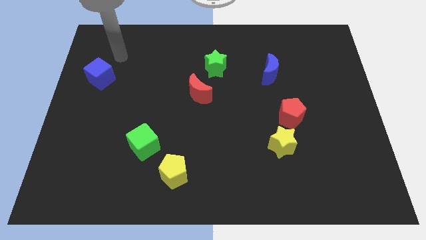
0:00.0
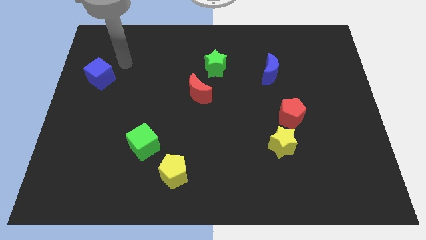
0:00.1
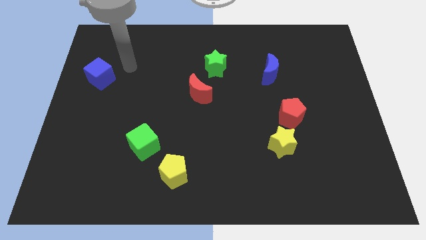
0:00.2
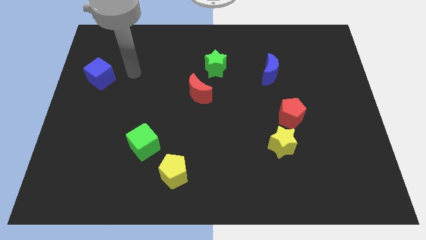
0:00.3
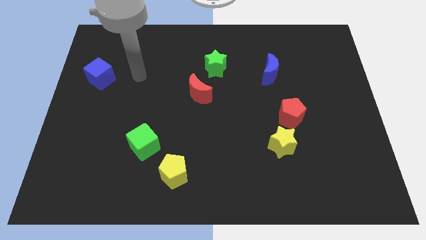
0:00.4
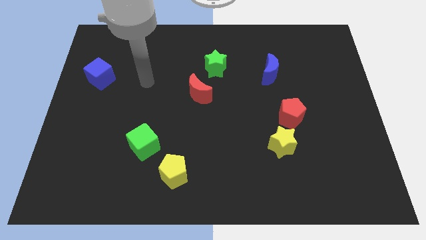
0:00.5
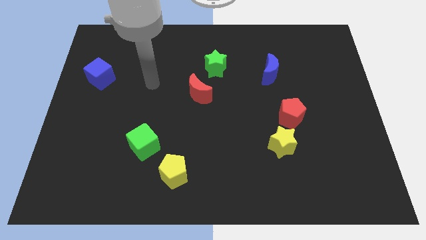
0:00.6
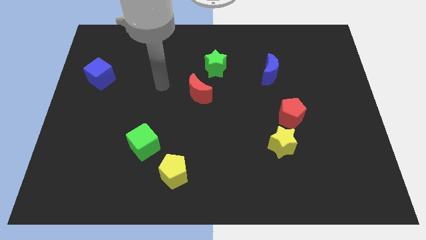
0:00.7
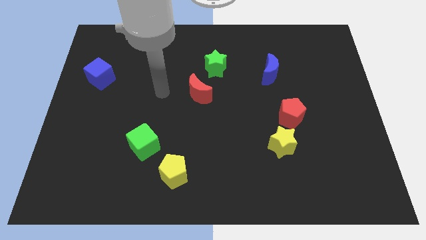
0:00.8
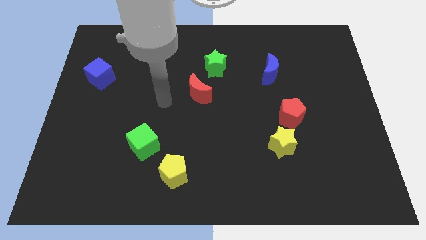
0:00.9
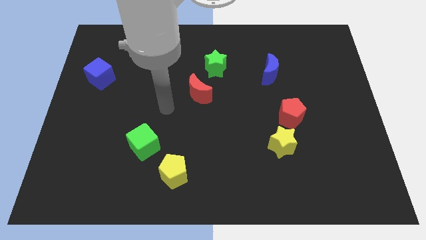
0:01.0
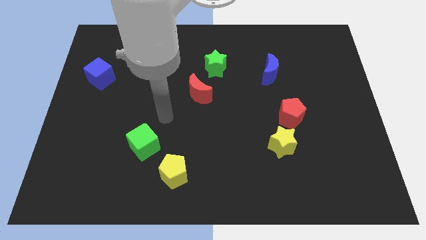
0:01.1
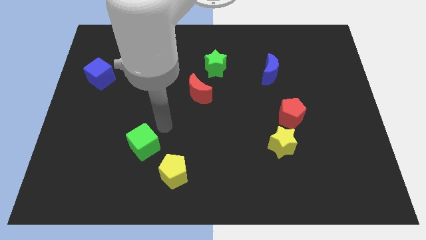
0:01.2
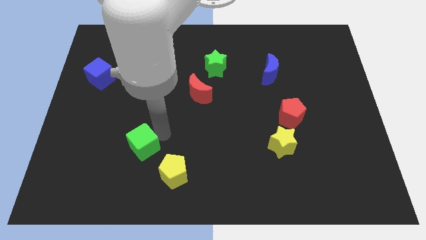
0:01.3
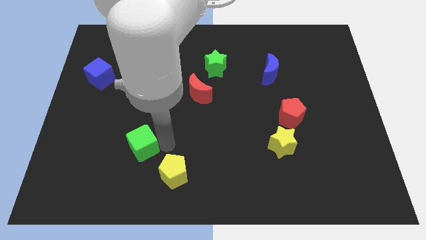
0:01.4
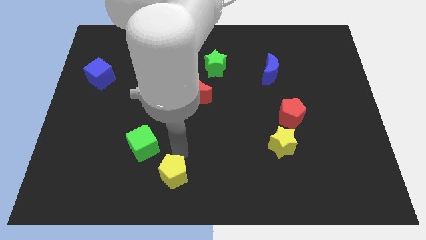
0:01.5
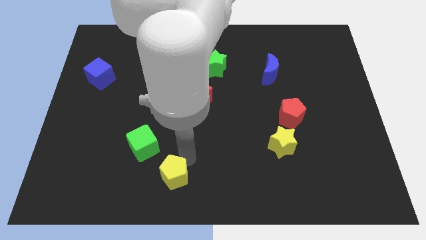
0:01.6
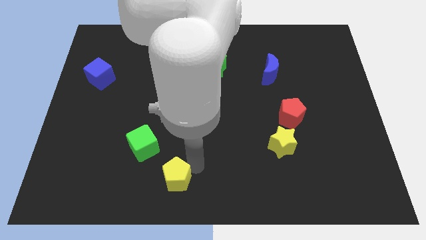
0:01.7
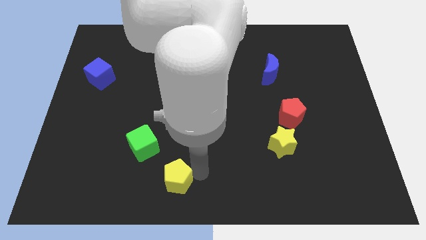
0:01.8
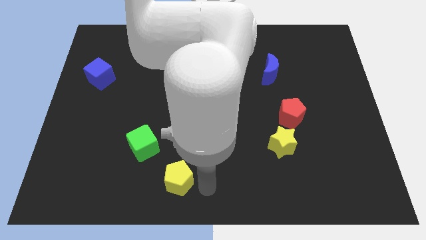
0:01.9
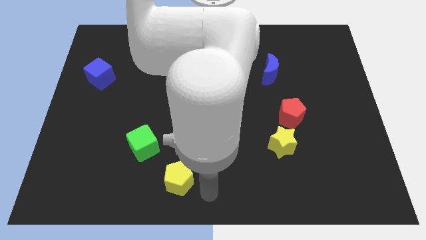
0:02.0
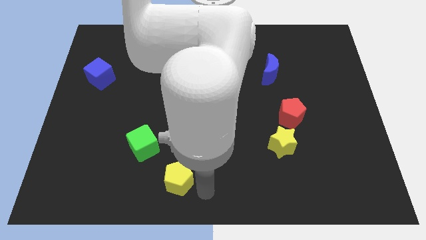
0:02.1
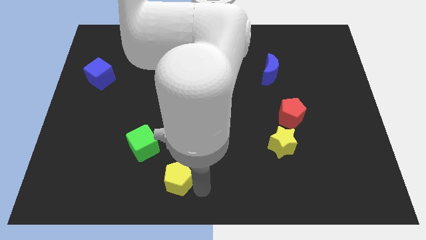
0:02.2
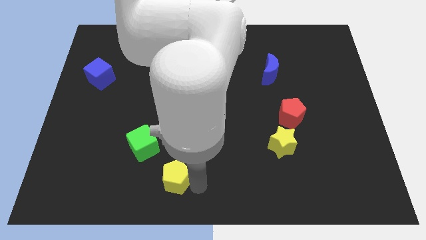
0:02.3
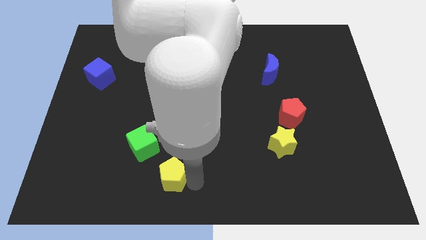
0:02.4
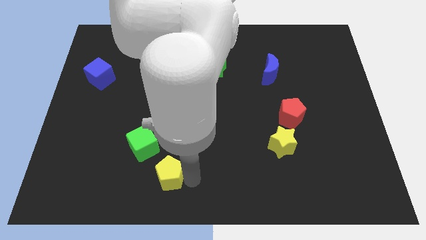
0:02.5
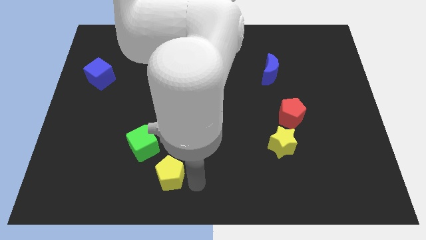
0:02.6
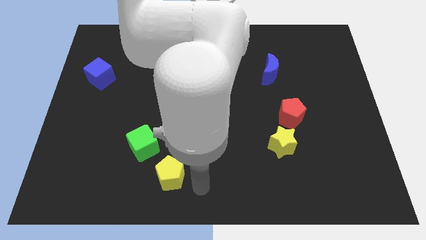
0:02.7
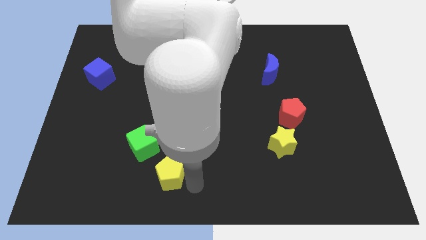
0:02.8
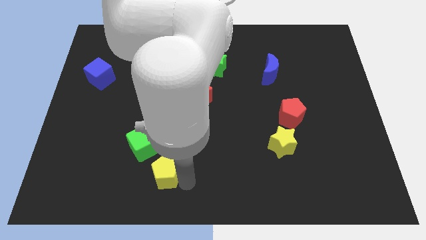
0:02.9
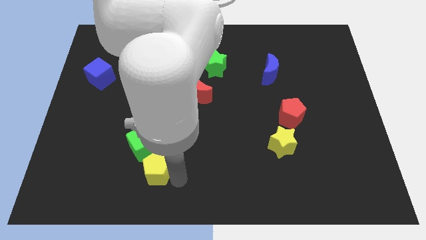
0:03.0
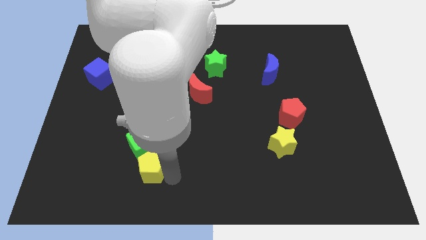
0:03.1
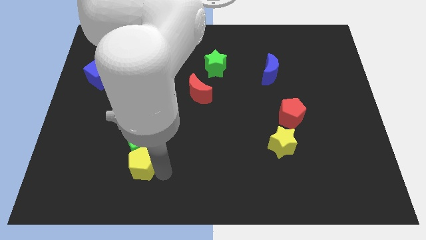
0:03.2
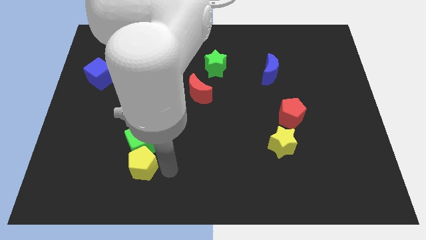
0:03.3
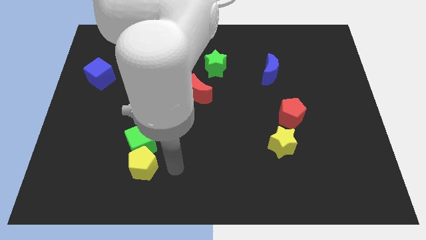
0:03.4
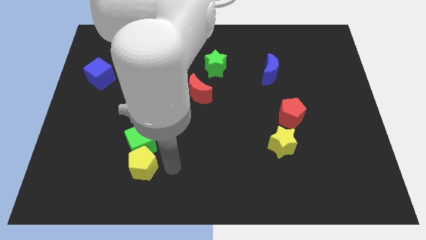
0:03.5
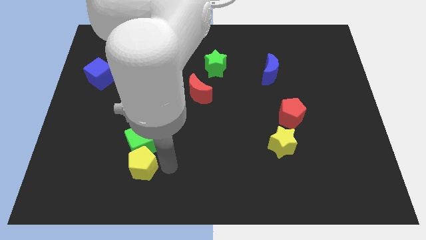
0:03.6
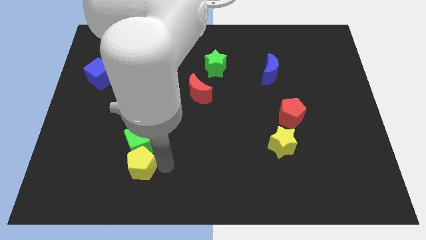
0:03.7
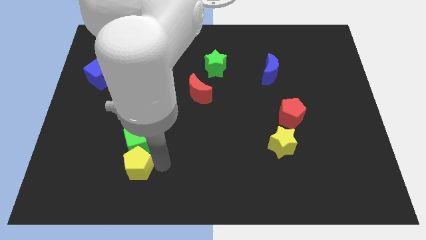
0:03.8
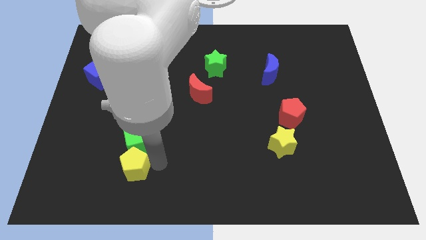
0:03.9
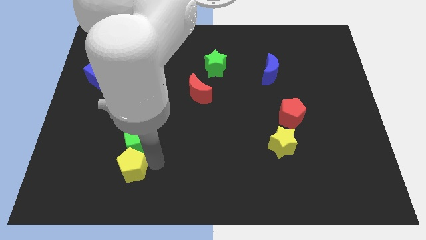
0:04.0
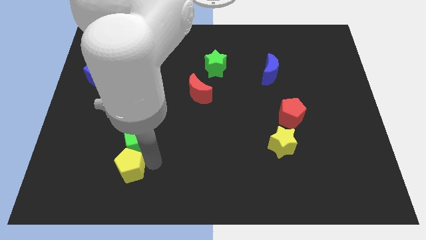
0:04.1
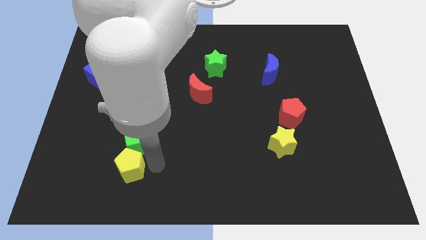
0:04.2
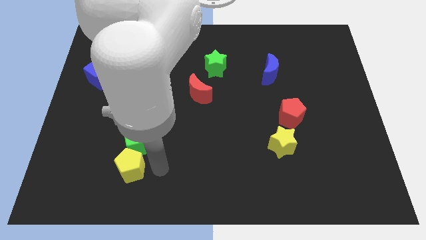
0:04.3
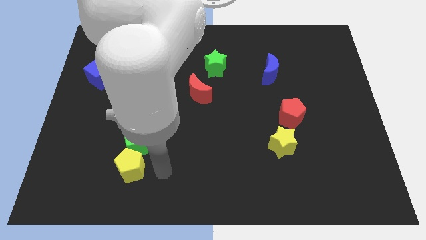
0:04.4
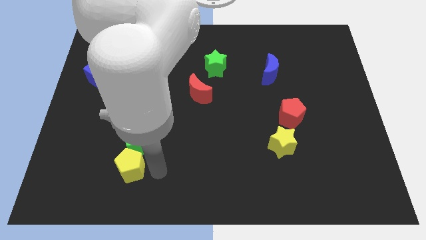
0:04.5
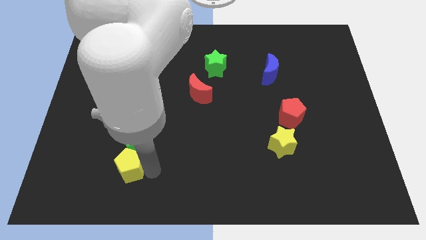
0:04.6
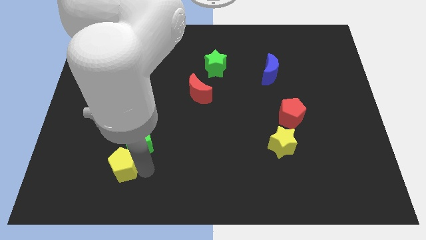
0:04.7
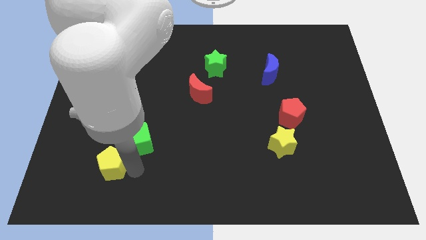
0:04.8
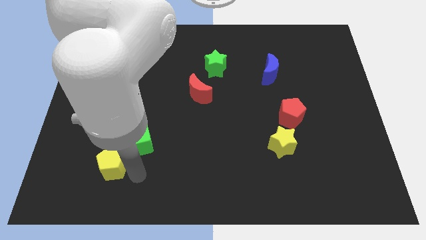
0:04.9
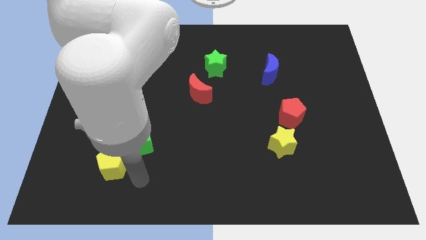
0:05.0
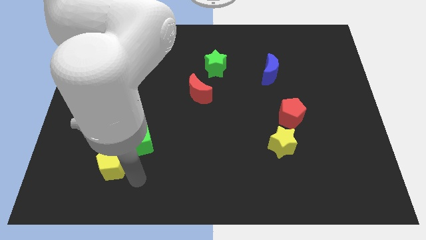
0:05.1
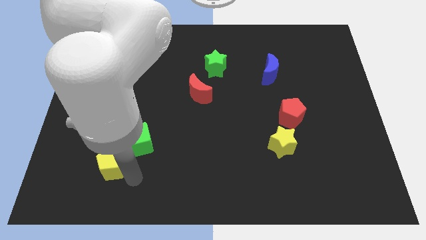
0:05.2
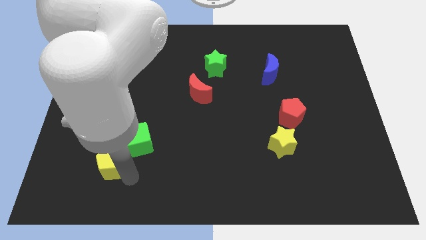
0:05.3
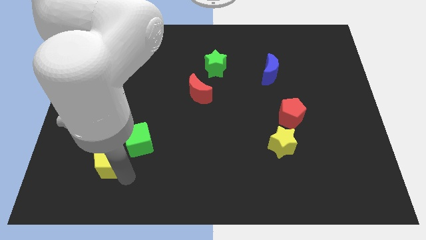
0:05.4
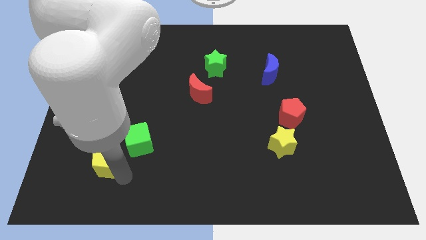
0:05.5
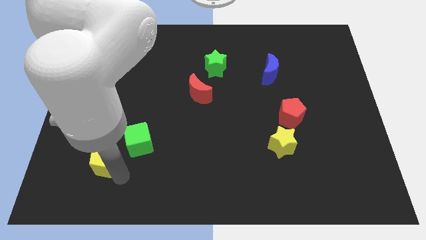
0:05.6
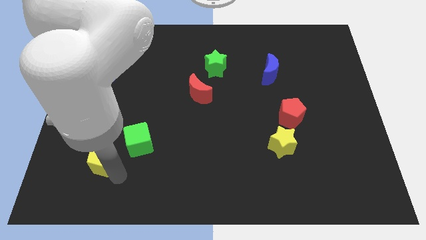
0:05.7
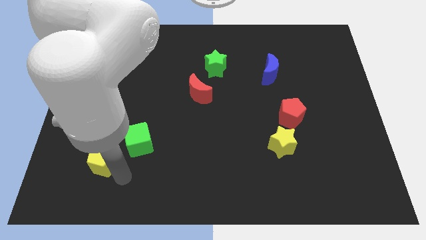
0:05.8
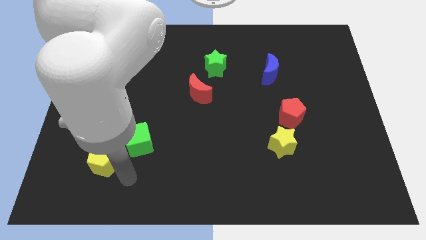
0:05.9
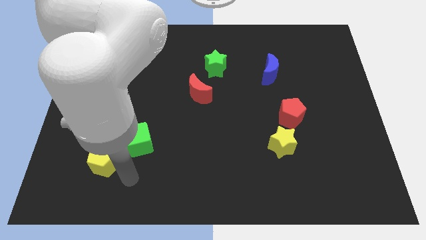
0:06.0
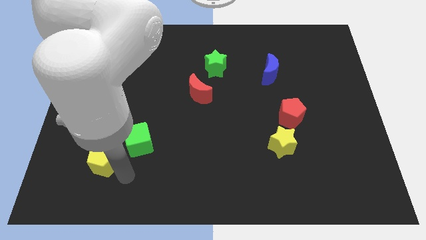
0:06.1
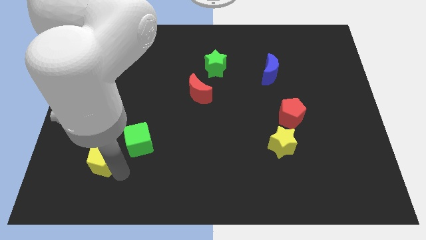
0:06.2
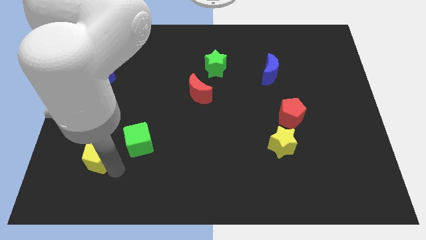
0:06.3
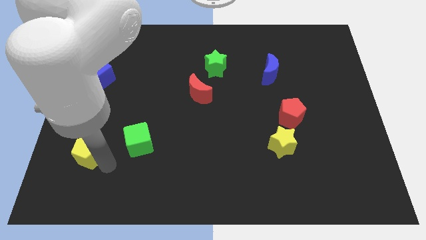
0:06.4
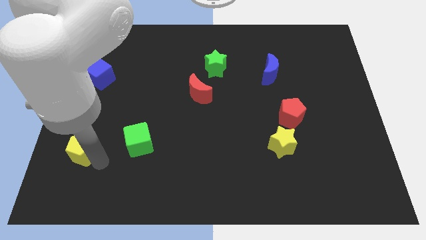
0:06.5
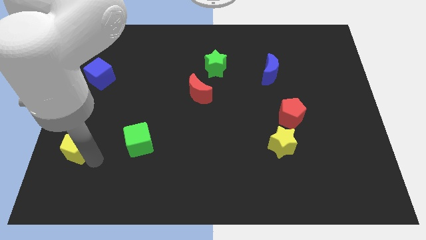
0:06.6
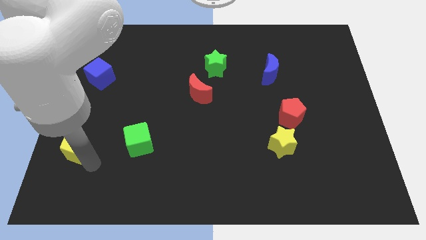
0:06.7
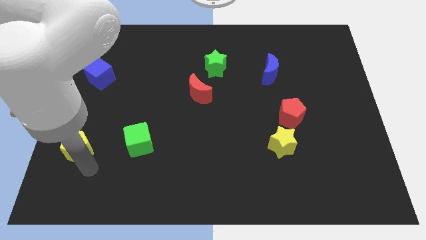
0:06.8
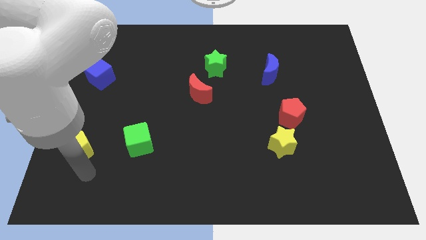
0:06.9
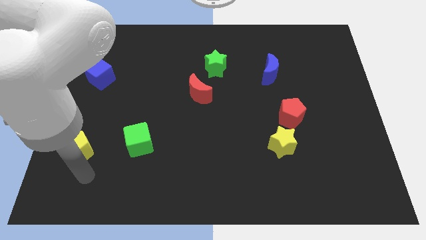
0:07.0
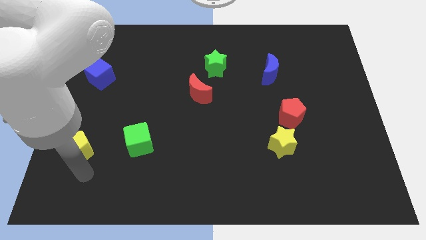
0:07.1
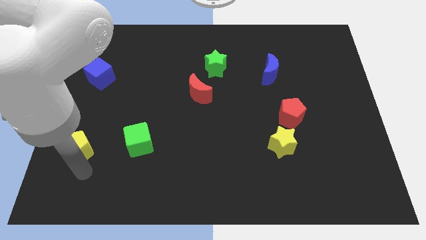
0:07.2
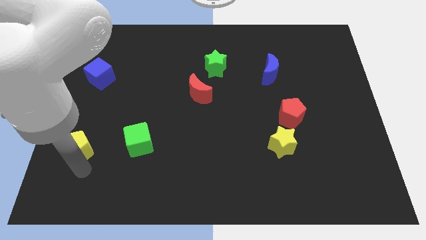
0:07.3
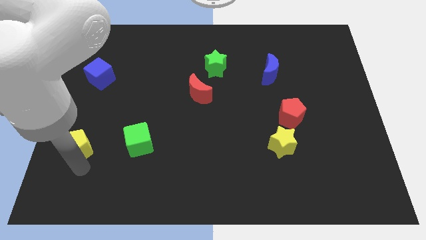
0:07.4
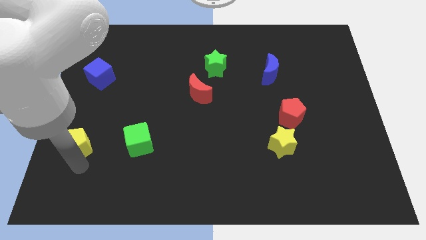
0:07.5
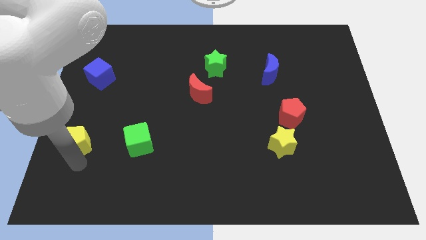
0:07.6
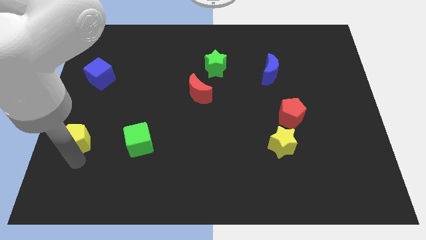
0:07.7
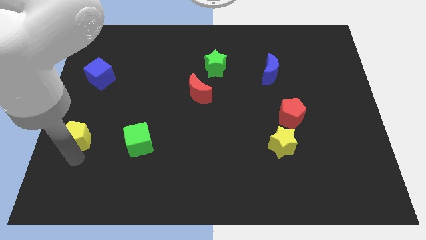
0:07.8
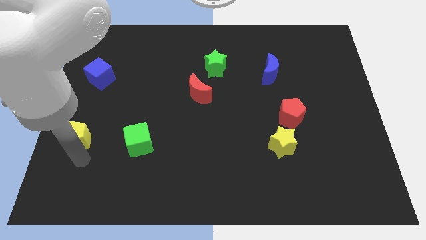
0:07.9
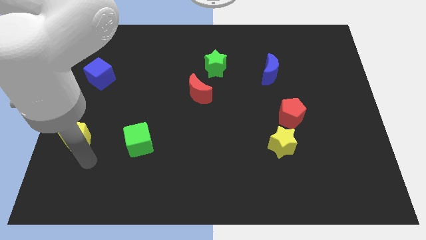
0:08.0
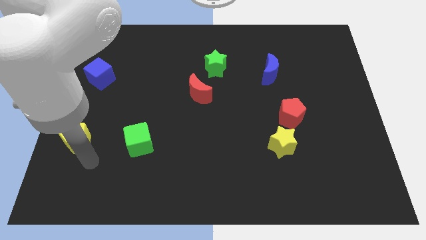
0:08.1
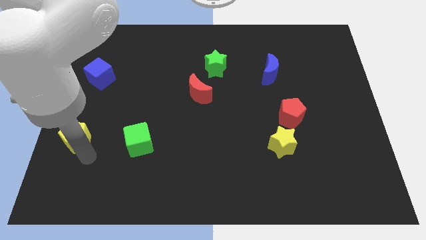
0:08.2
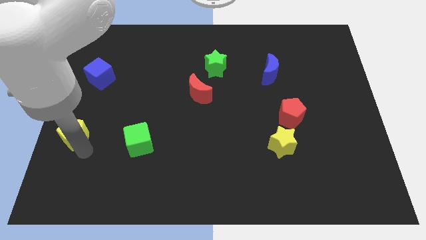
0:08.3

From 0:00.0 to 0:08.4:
push the yellow pentagon to the center left
